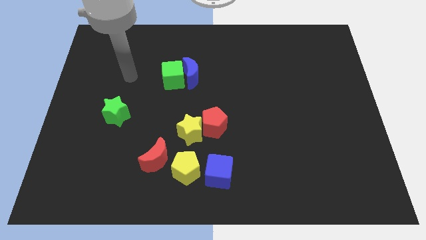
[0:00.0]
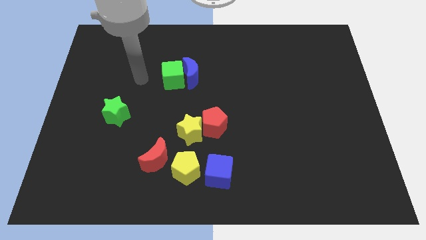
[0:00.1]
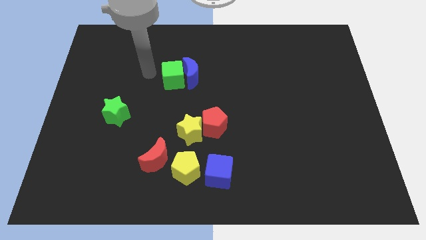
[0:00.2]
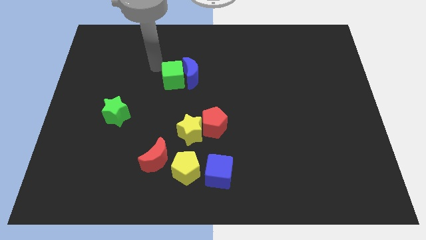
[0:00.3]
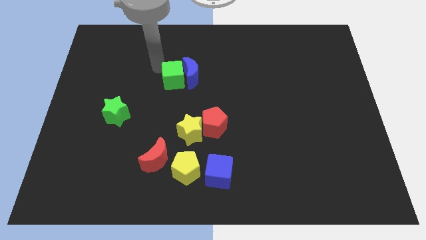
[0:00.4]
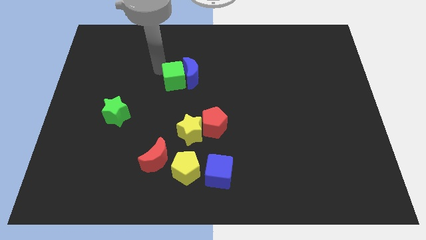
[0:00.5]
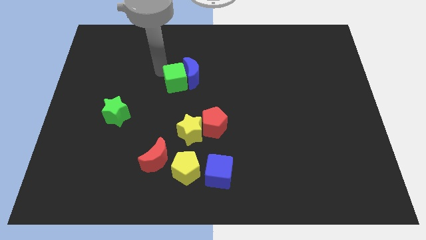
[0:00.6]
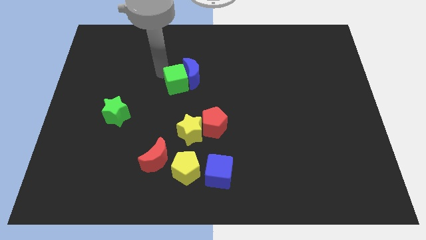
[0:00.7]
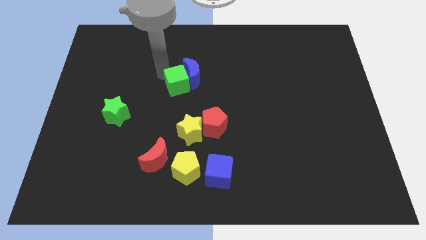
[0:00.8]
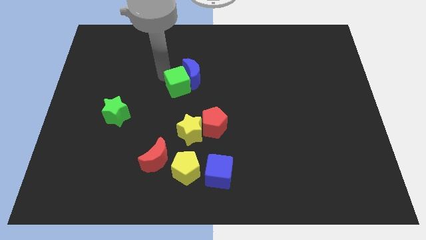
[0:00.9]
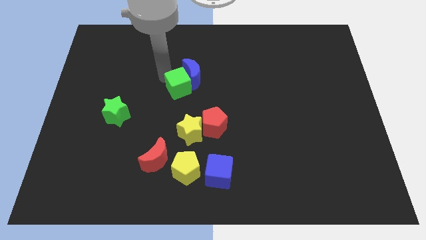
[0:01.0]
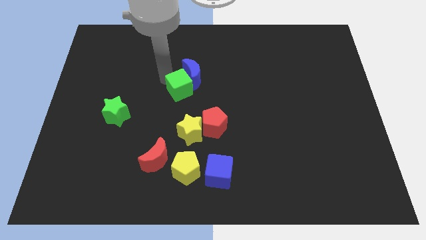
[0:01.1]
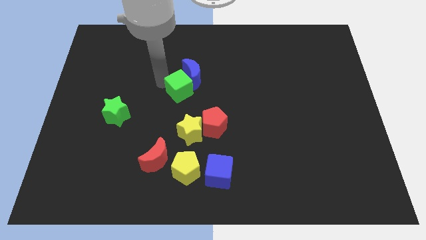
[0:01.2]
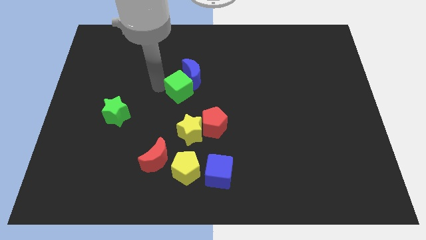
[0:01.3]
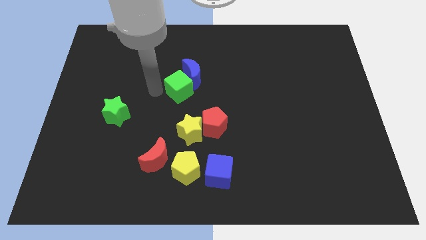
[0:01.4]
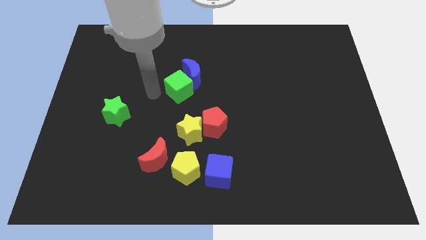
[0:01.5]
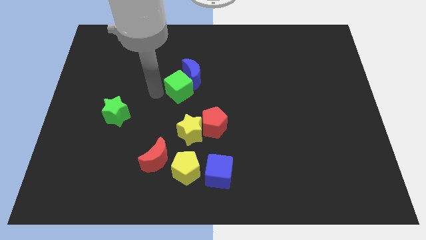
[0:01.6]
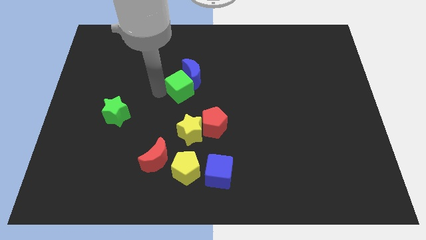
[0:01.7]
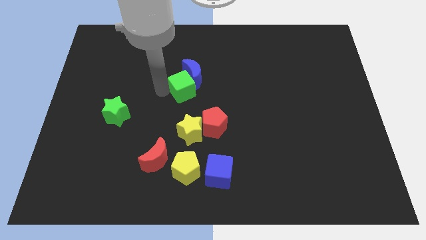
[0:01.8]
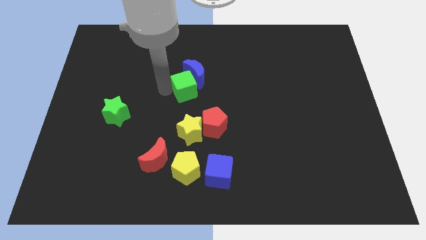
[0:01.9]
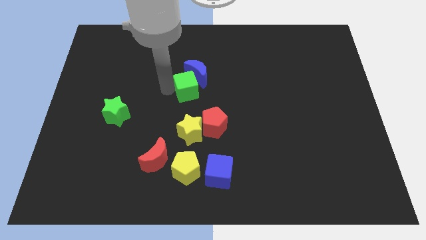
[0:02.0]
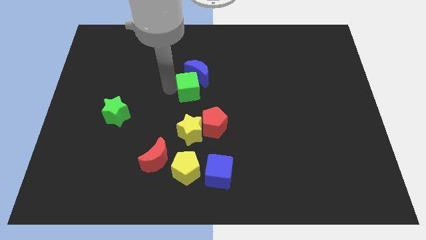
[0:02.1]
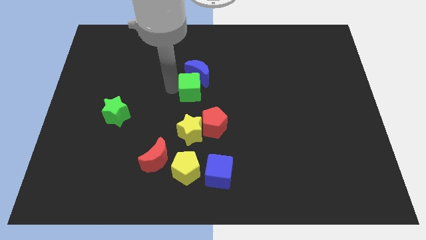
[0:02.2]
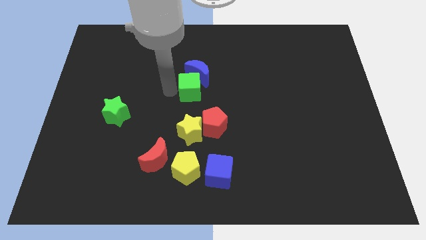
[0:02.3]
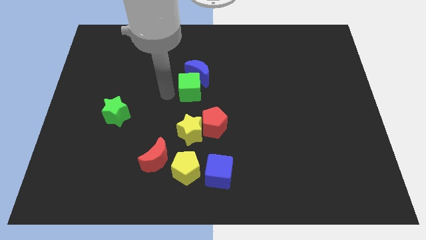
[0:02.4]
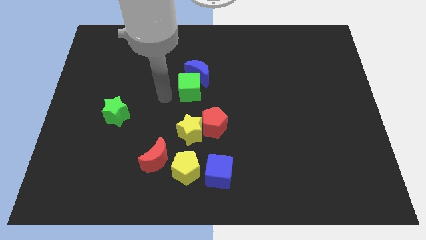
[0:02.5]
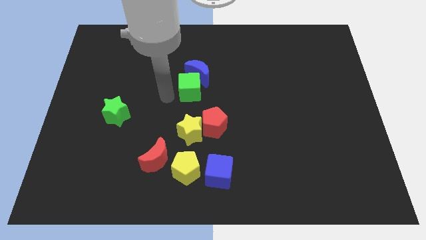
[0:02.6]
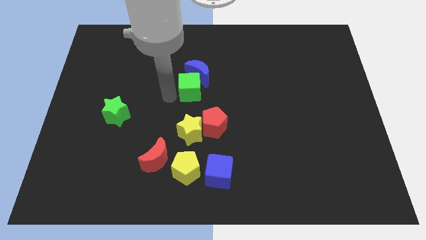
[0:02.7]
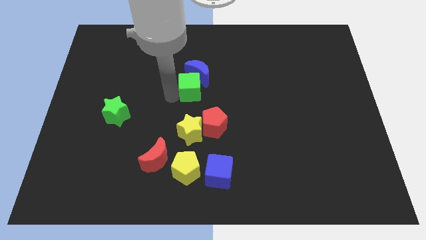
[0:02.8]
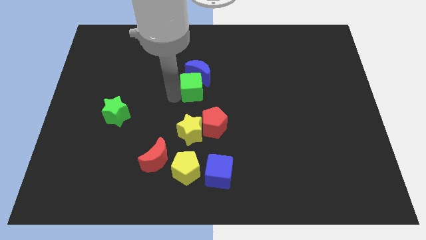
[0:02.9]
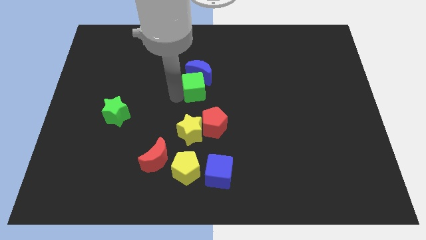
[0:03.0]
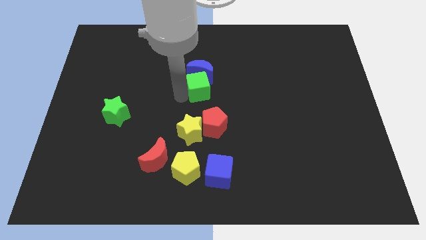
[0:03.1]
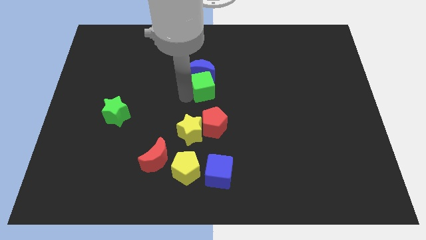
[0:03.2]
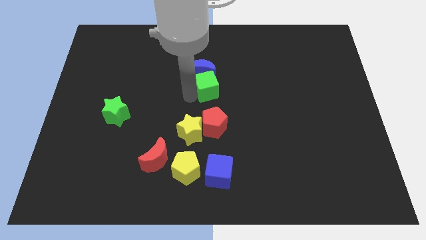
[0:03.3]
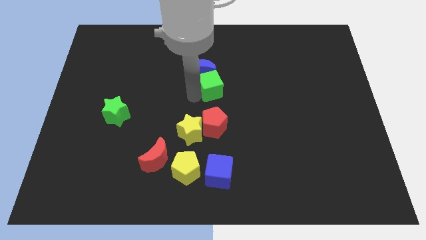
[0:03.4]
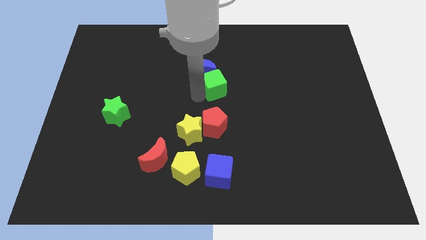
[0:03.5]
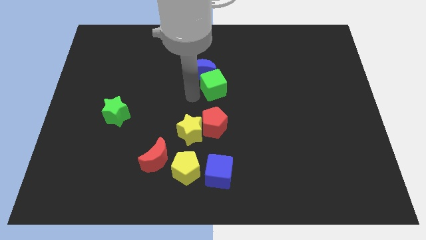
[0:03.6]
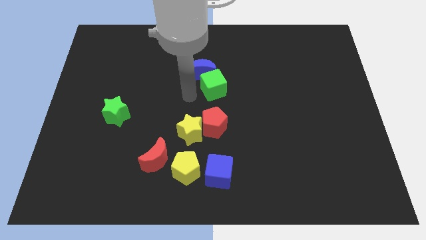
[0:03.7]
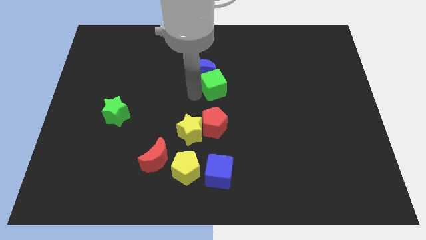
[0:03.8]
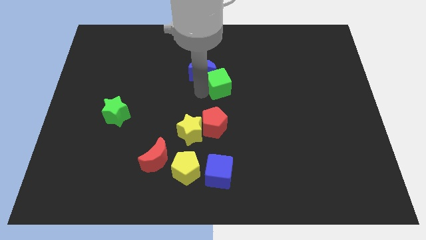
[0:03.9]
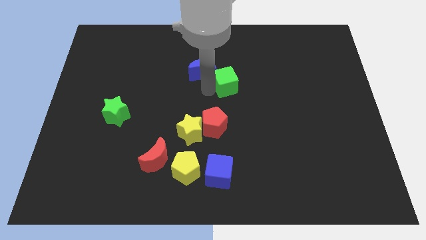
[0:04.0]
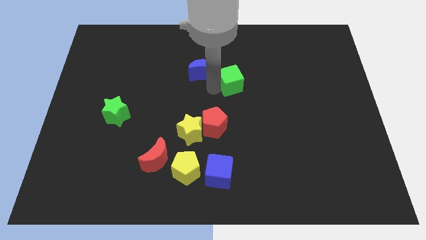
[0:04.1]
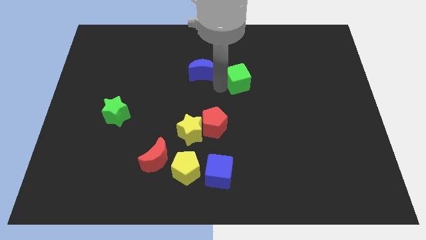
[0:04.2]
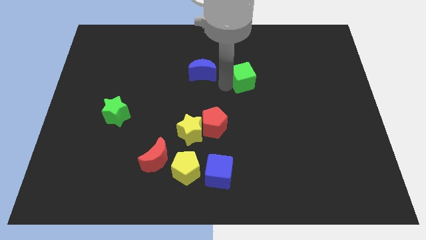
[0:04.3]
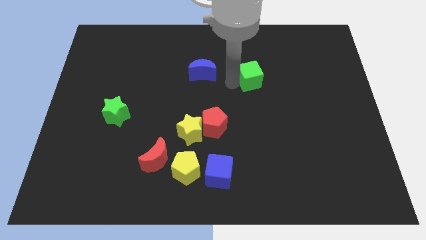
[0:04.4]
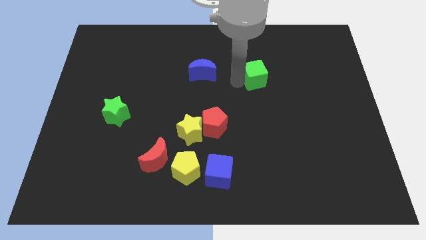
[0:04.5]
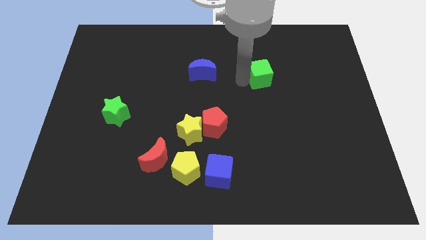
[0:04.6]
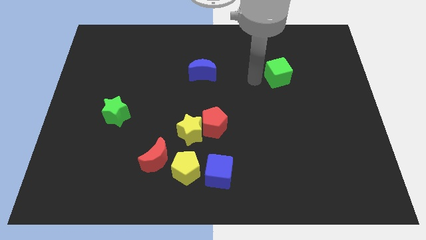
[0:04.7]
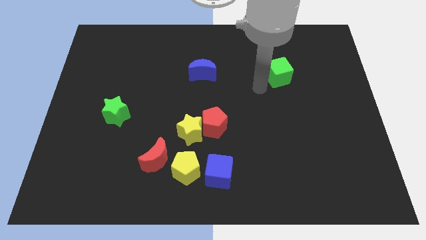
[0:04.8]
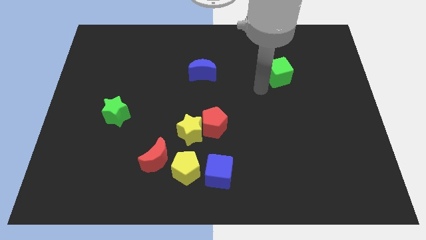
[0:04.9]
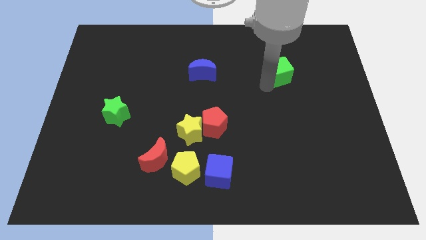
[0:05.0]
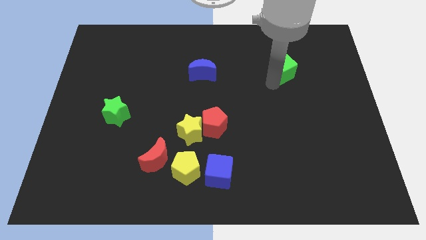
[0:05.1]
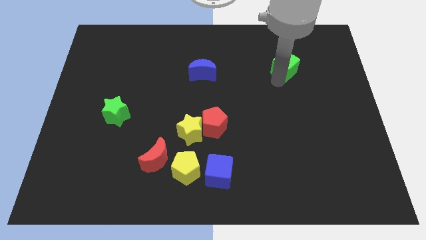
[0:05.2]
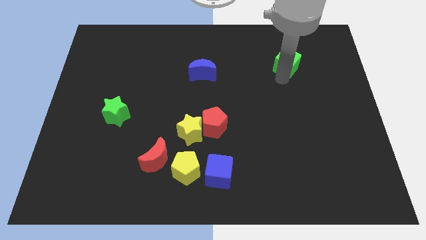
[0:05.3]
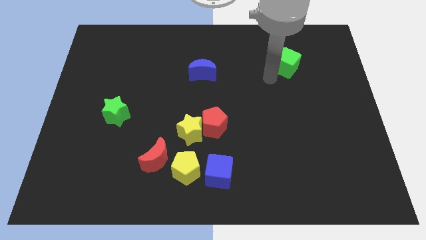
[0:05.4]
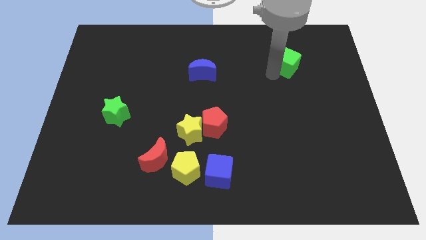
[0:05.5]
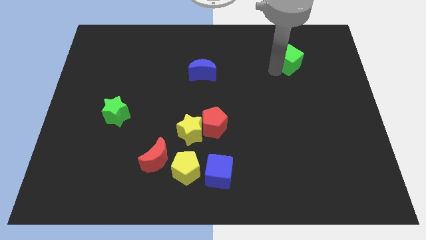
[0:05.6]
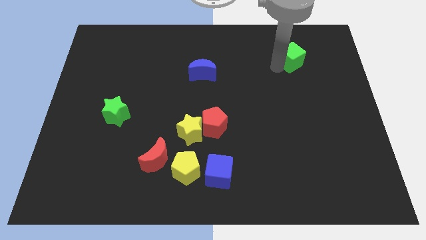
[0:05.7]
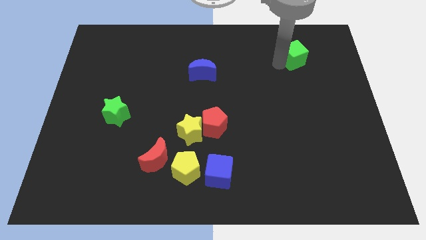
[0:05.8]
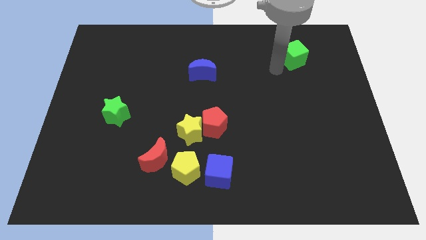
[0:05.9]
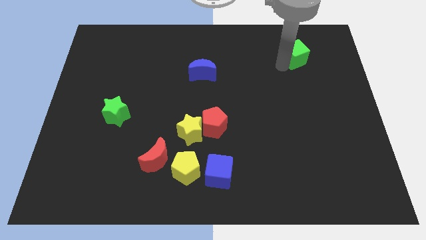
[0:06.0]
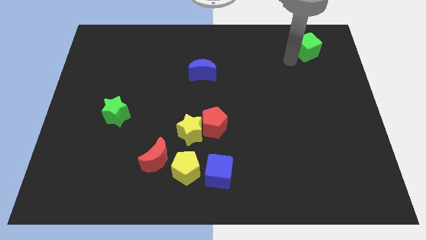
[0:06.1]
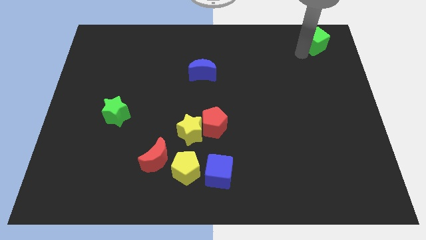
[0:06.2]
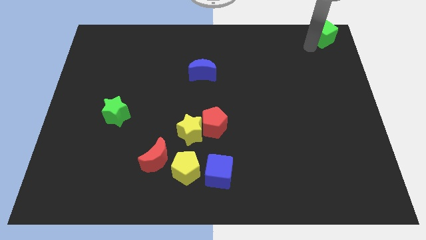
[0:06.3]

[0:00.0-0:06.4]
push the green cube to the top right corner

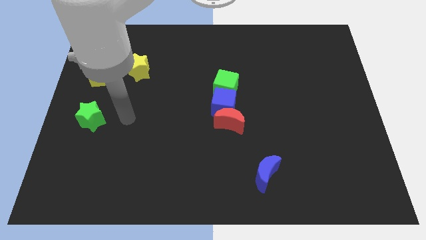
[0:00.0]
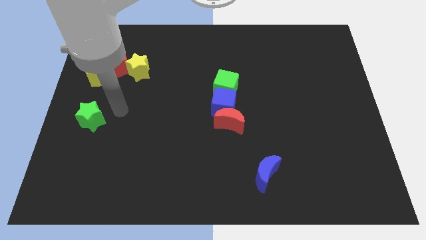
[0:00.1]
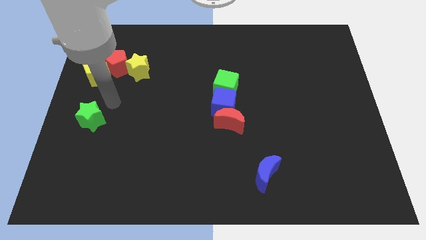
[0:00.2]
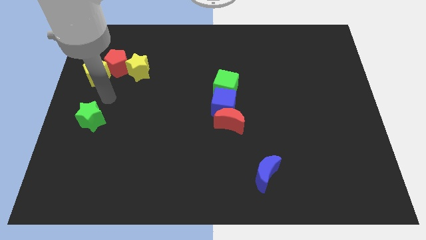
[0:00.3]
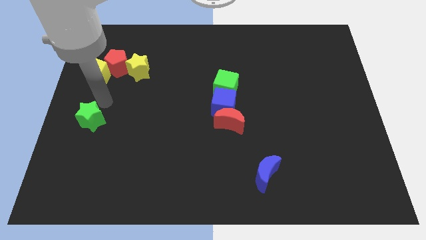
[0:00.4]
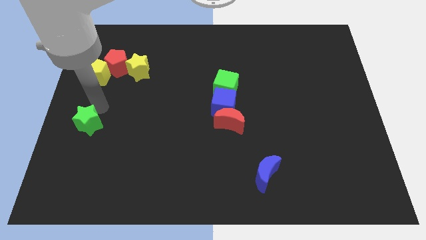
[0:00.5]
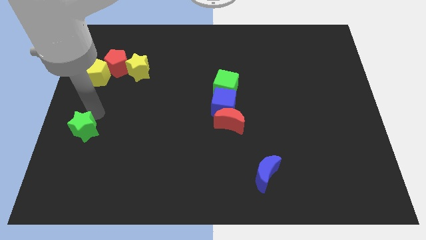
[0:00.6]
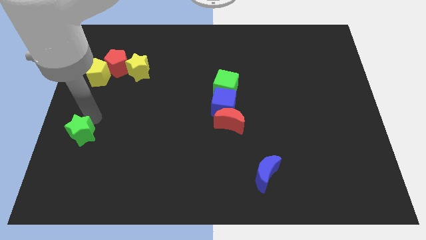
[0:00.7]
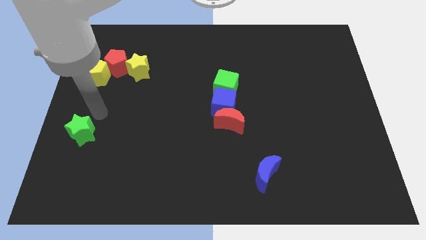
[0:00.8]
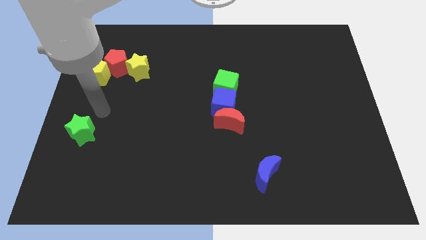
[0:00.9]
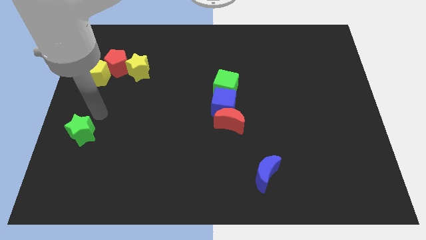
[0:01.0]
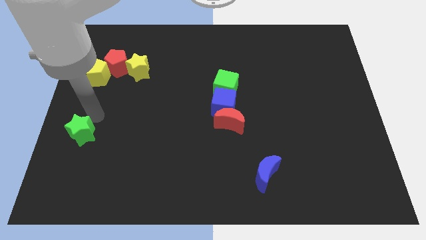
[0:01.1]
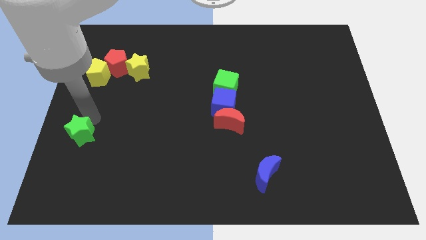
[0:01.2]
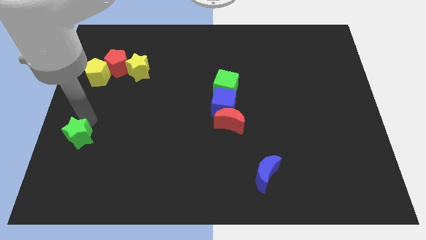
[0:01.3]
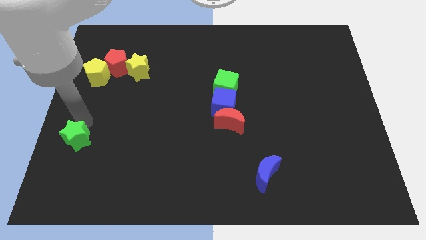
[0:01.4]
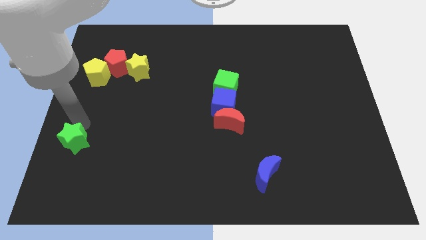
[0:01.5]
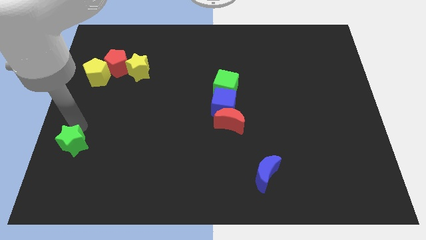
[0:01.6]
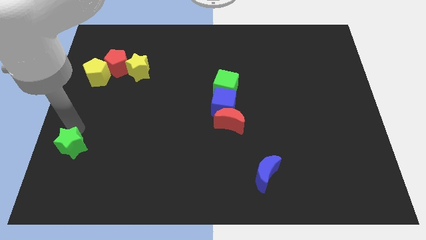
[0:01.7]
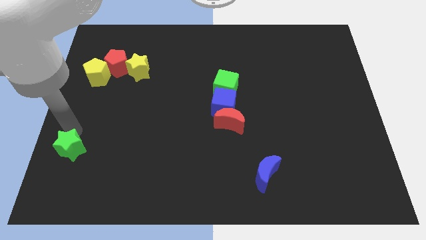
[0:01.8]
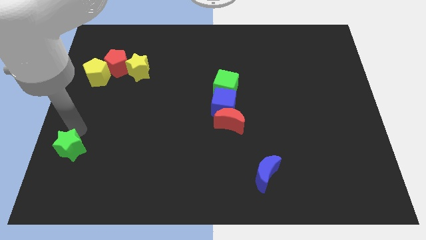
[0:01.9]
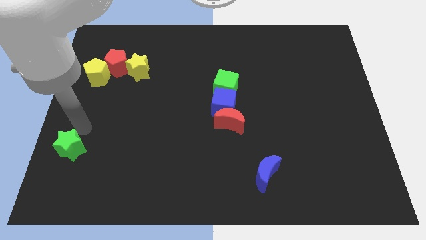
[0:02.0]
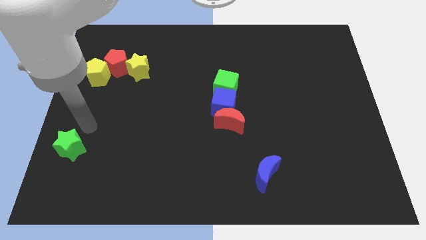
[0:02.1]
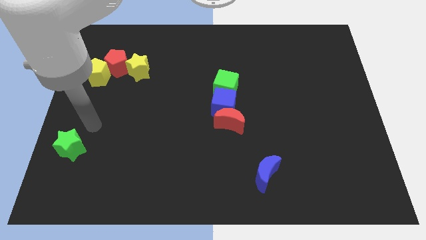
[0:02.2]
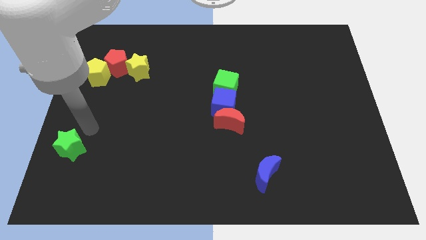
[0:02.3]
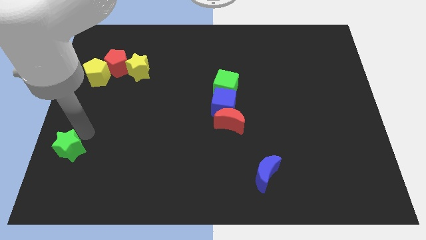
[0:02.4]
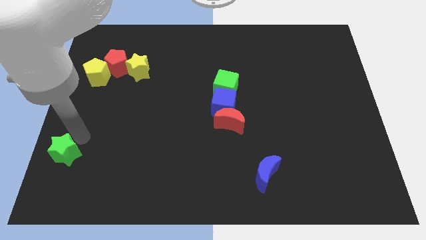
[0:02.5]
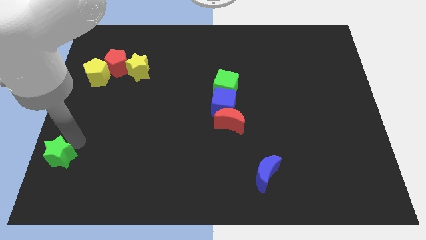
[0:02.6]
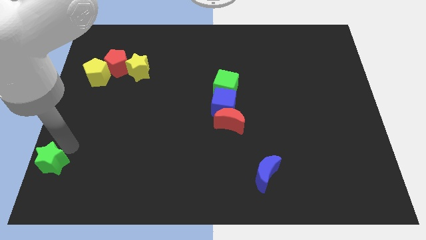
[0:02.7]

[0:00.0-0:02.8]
push the green star to the lower left corner
